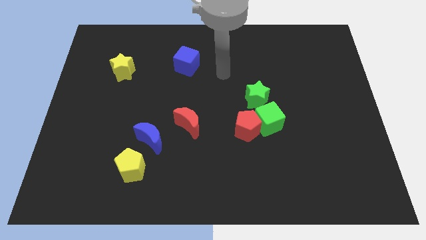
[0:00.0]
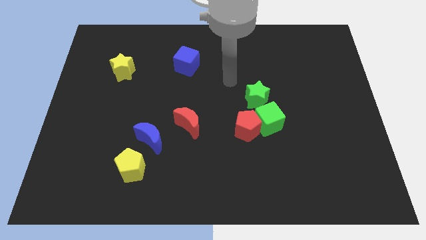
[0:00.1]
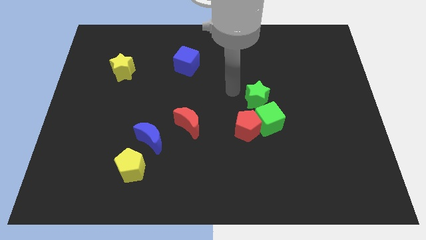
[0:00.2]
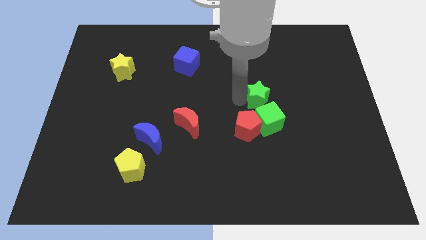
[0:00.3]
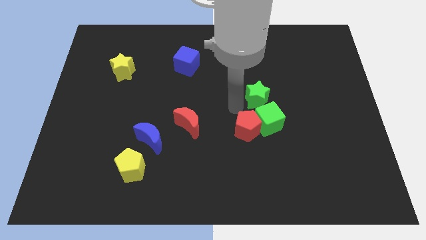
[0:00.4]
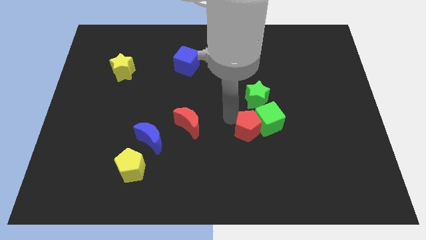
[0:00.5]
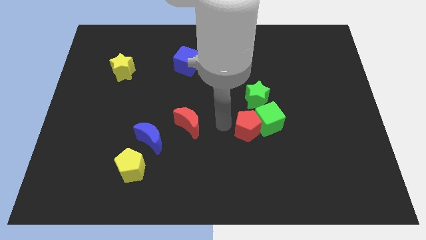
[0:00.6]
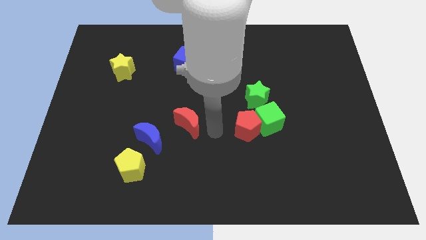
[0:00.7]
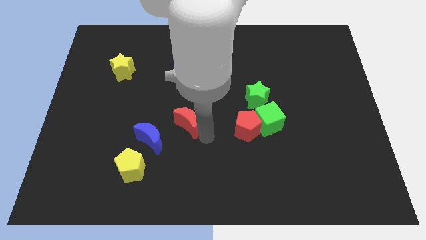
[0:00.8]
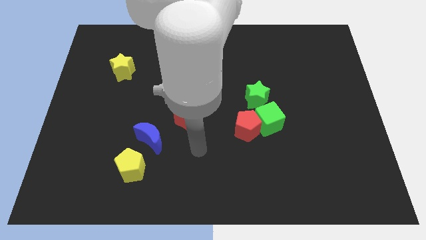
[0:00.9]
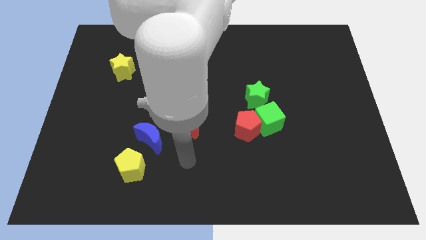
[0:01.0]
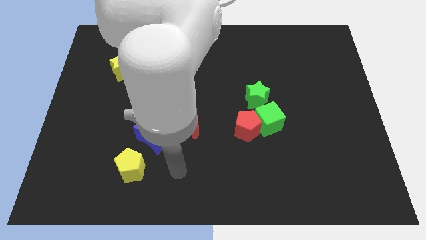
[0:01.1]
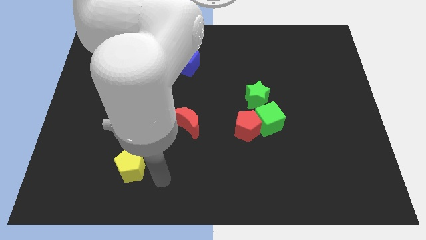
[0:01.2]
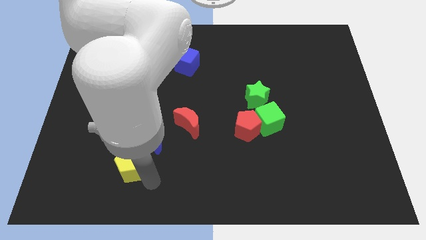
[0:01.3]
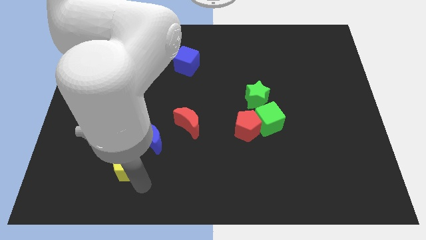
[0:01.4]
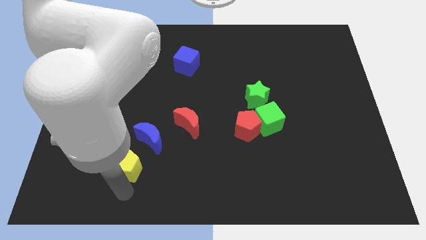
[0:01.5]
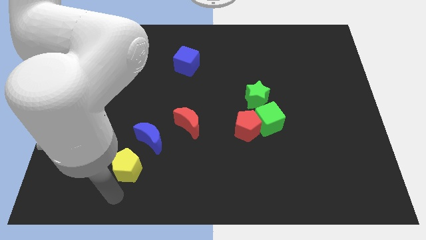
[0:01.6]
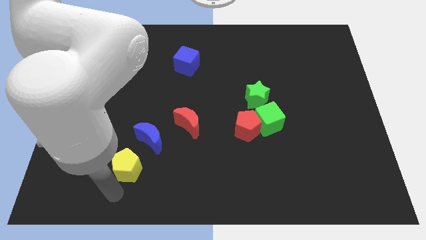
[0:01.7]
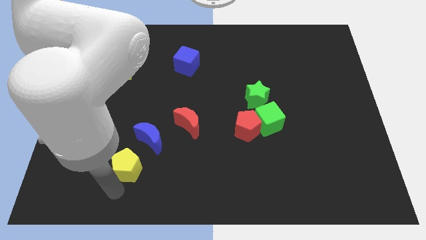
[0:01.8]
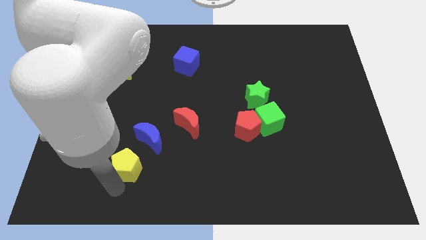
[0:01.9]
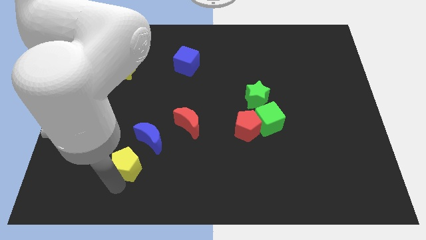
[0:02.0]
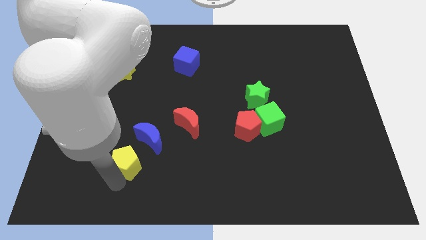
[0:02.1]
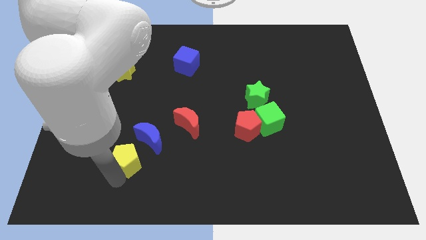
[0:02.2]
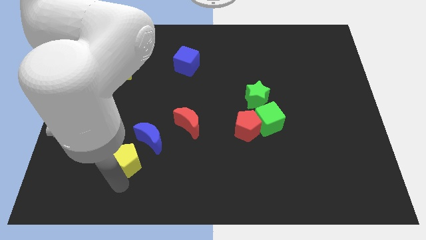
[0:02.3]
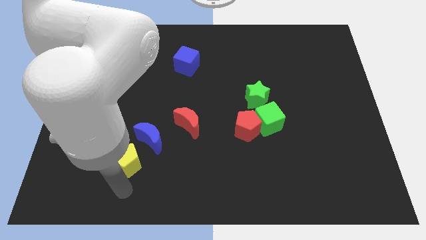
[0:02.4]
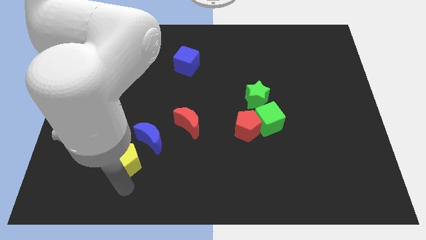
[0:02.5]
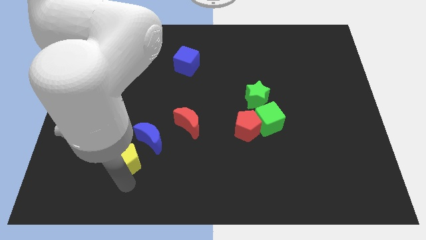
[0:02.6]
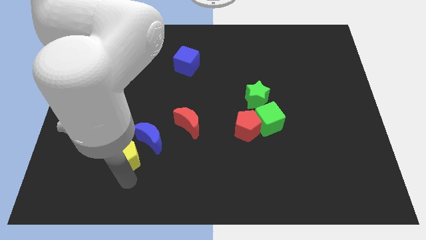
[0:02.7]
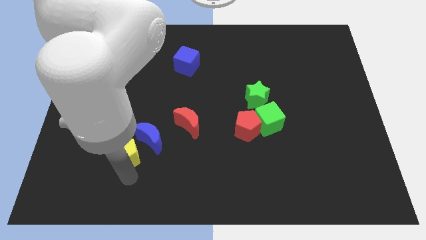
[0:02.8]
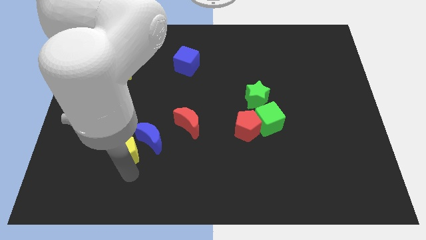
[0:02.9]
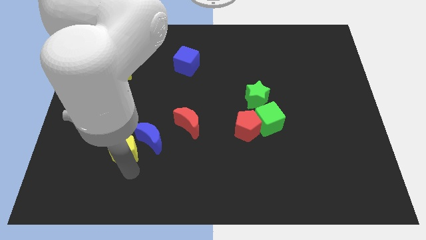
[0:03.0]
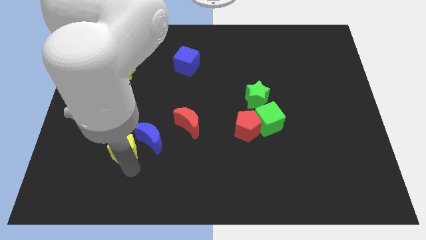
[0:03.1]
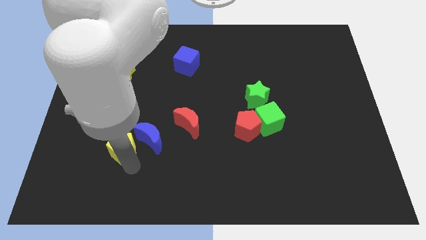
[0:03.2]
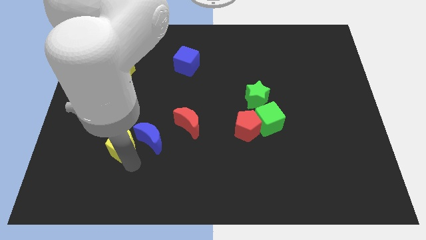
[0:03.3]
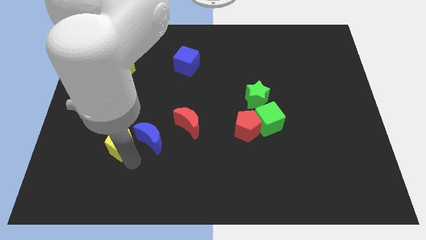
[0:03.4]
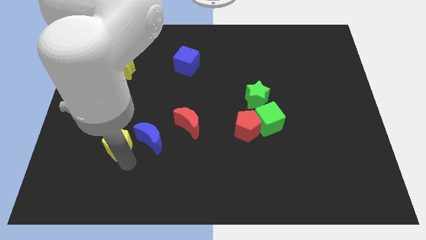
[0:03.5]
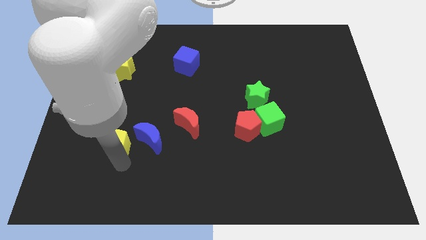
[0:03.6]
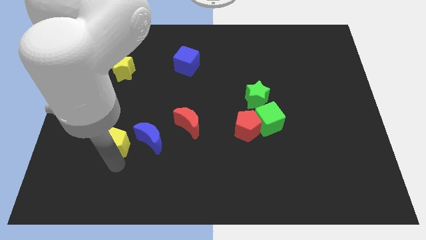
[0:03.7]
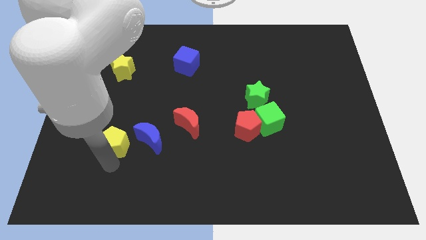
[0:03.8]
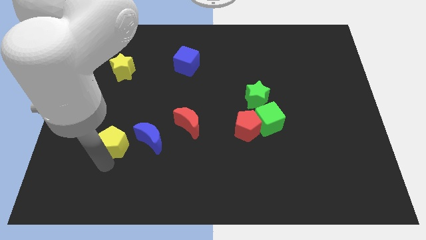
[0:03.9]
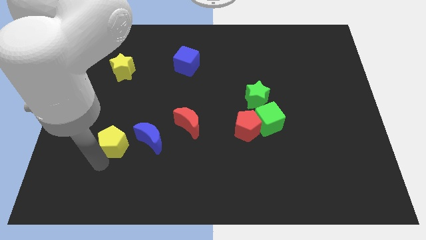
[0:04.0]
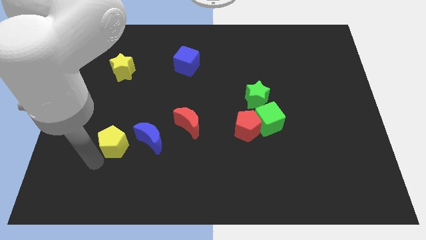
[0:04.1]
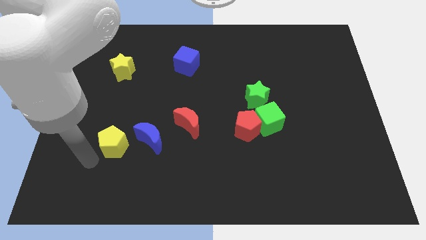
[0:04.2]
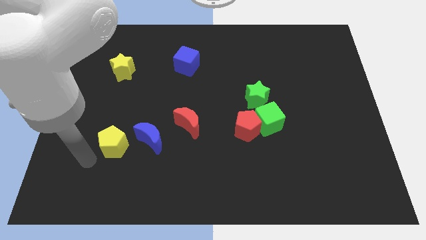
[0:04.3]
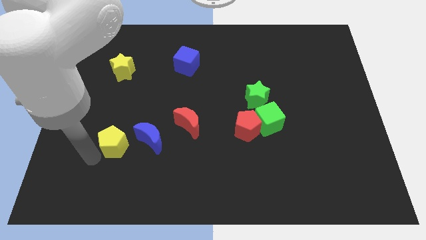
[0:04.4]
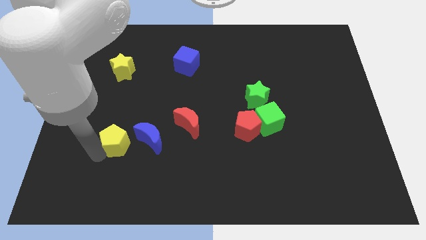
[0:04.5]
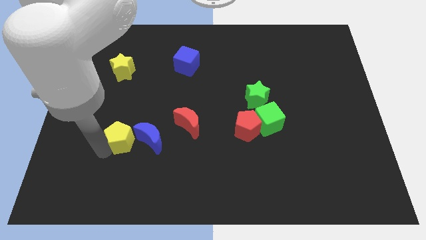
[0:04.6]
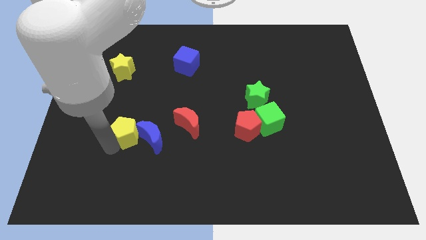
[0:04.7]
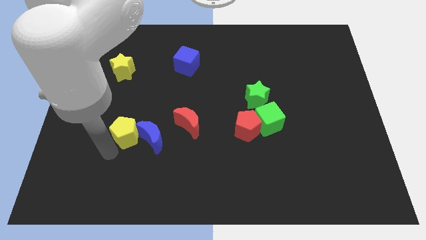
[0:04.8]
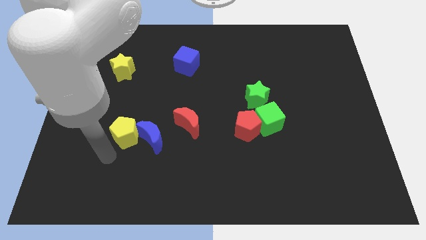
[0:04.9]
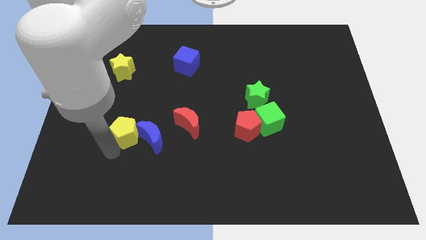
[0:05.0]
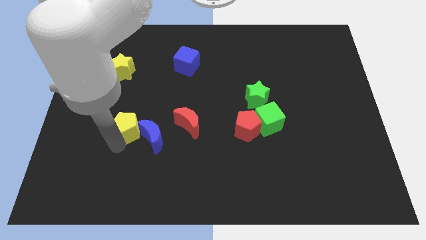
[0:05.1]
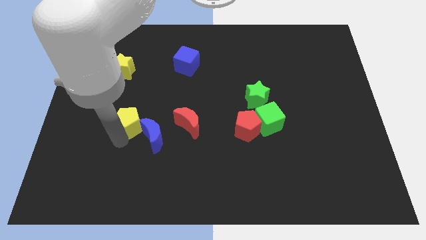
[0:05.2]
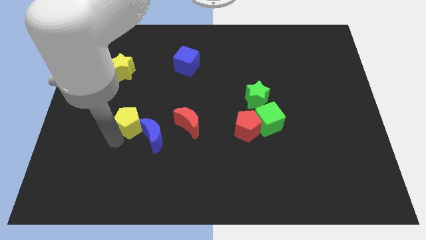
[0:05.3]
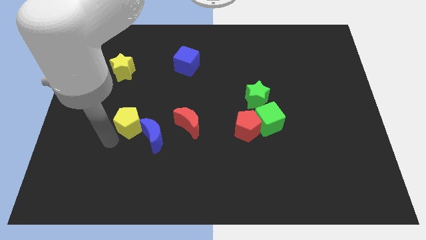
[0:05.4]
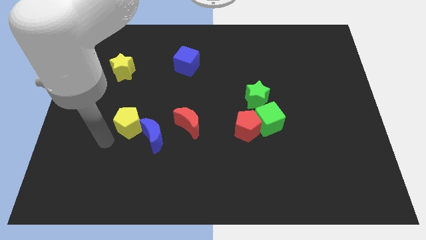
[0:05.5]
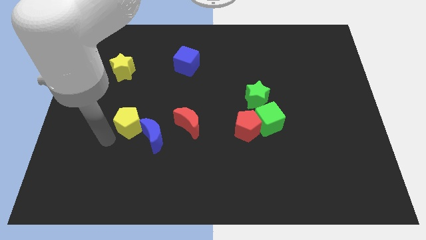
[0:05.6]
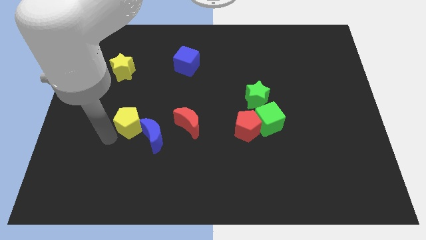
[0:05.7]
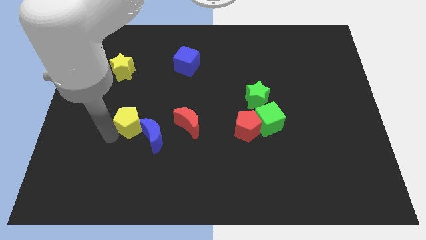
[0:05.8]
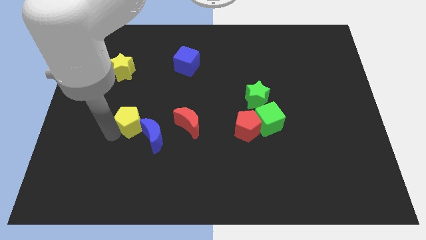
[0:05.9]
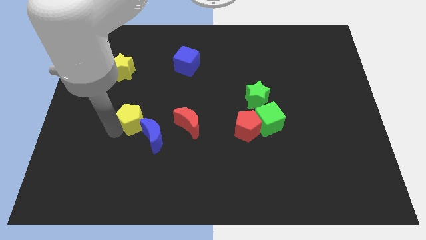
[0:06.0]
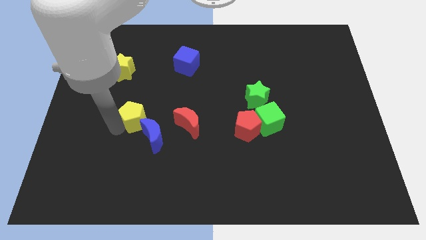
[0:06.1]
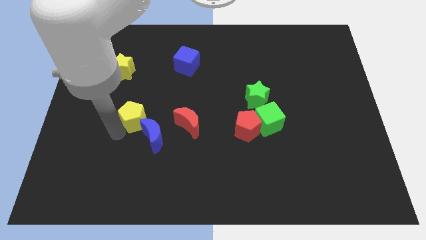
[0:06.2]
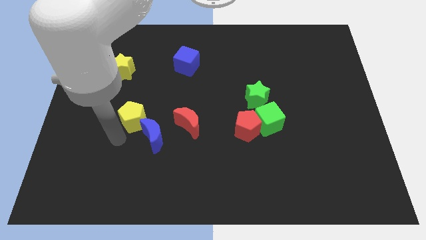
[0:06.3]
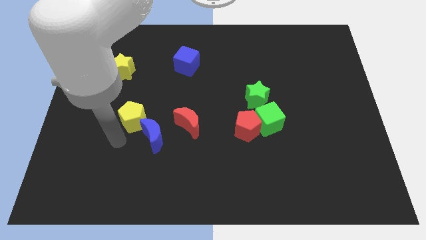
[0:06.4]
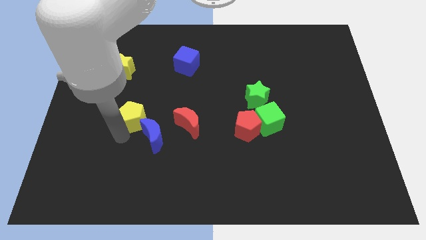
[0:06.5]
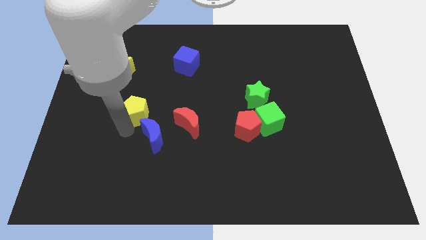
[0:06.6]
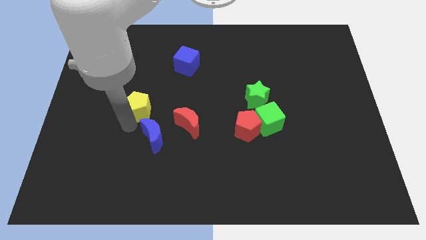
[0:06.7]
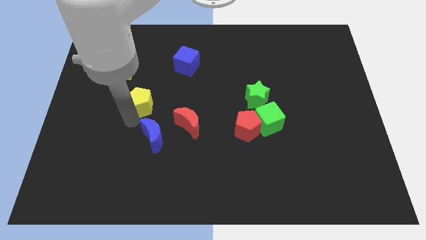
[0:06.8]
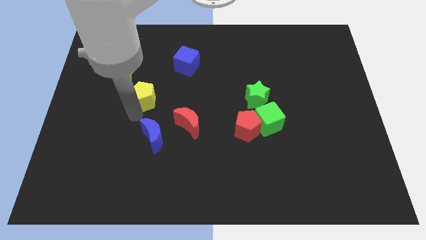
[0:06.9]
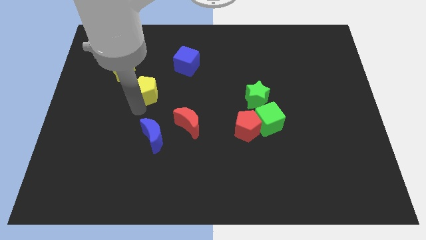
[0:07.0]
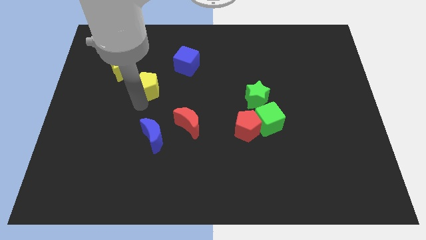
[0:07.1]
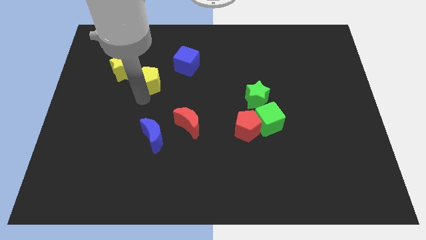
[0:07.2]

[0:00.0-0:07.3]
slide the yellow pentagon just right of the yellow star

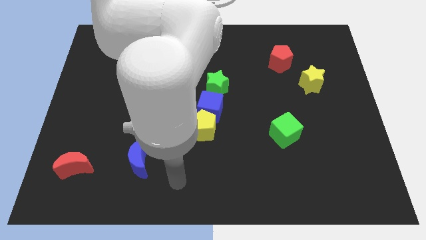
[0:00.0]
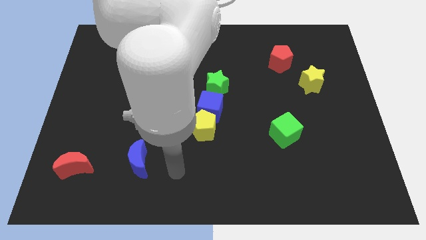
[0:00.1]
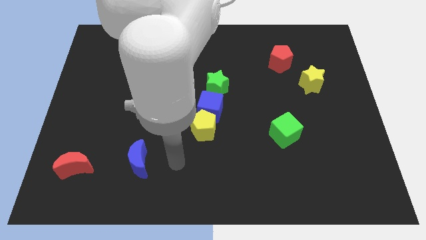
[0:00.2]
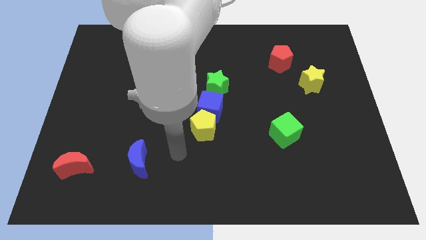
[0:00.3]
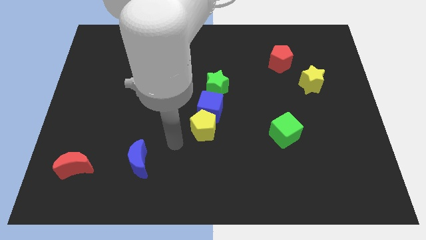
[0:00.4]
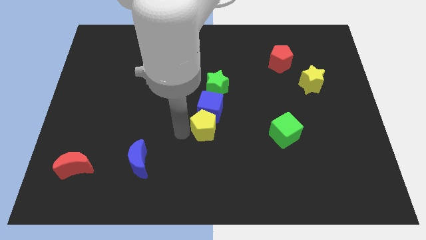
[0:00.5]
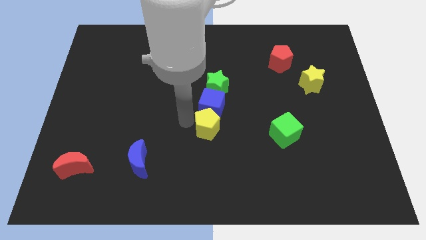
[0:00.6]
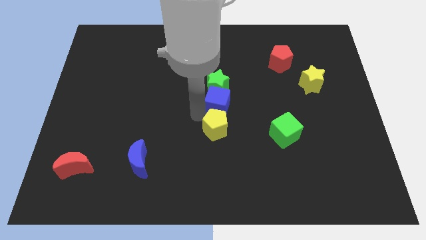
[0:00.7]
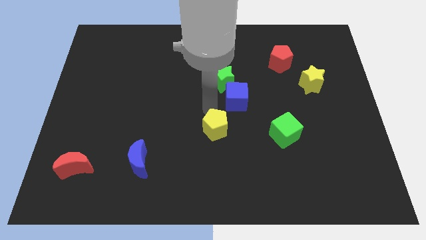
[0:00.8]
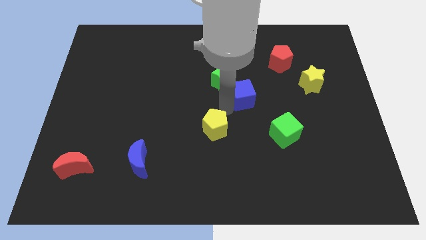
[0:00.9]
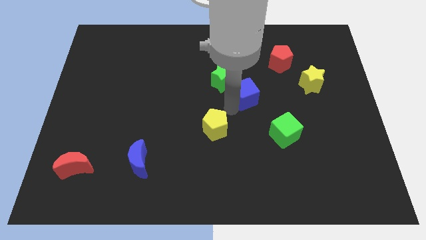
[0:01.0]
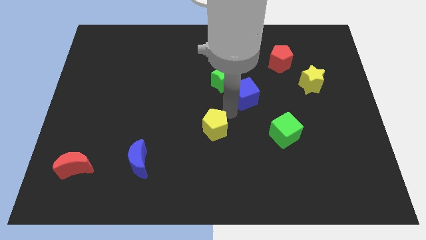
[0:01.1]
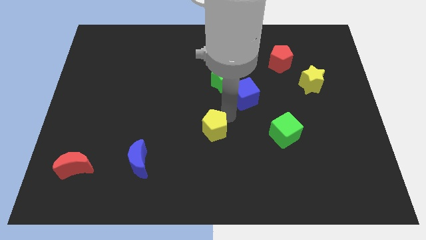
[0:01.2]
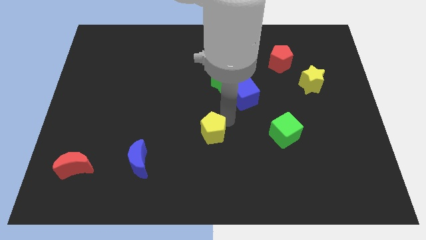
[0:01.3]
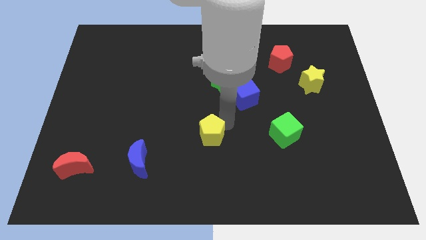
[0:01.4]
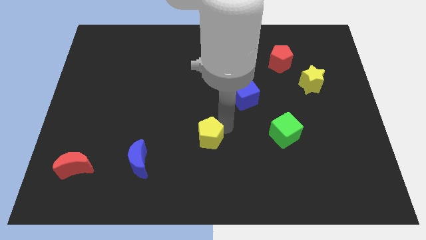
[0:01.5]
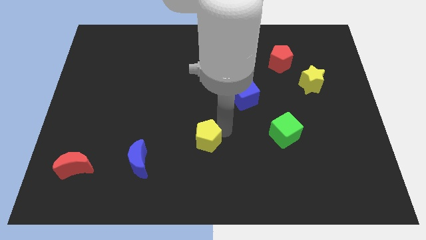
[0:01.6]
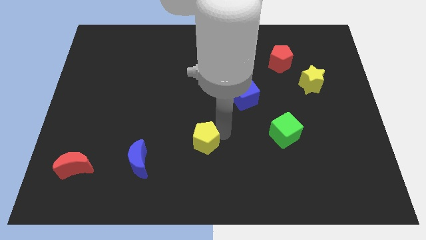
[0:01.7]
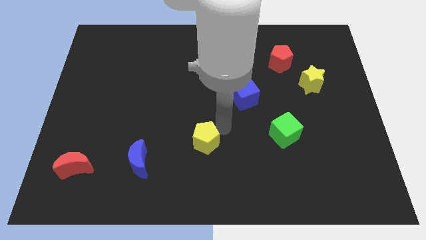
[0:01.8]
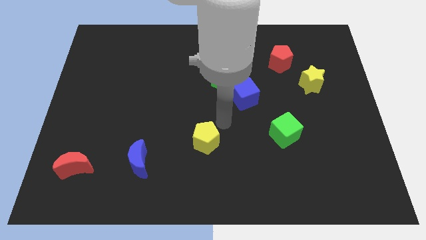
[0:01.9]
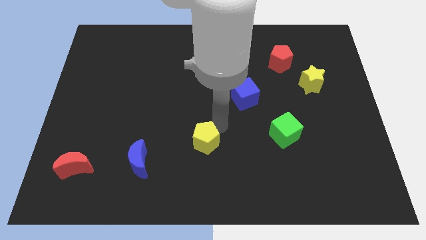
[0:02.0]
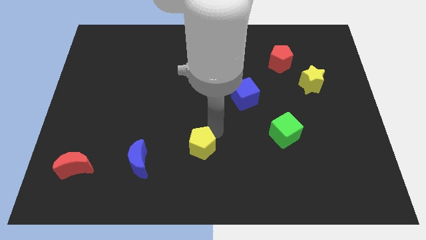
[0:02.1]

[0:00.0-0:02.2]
slide the yellow pentagon to the right side of the blue moon
